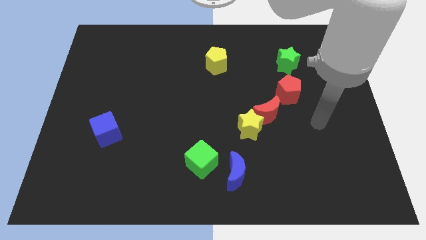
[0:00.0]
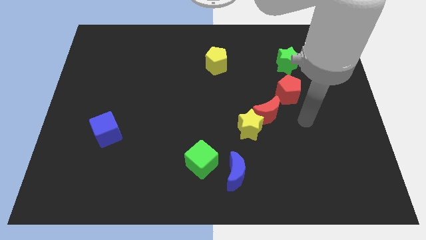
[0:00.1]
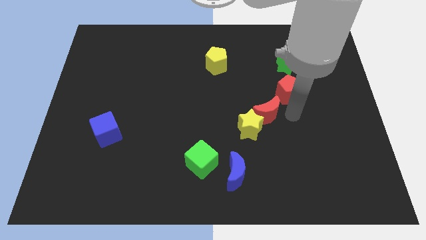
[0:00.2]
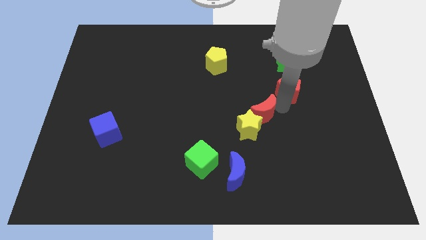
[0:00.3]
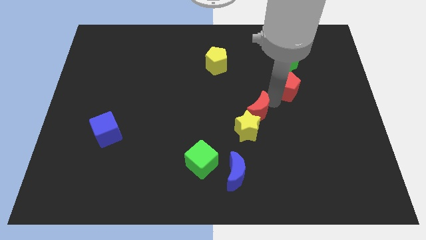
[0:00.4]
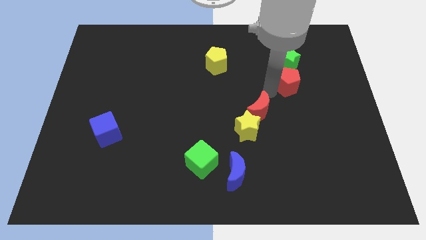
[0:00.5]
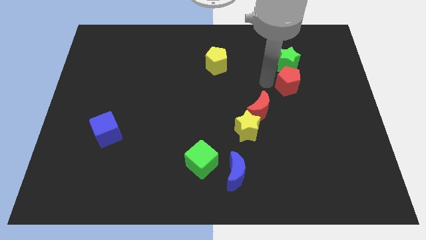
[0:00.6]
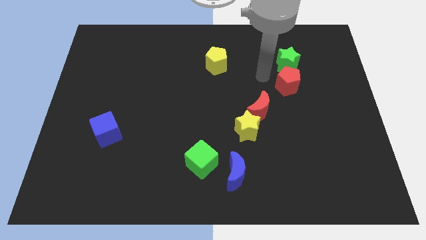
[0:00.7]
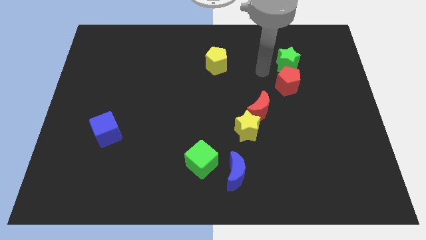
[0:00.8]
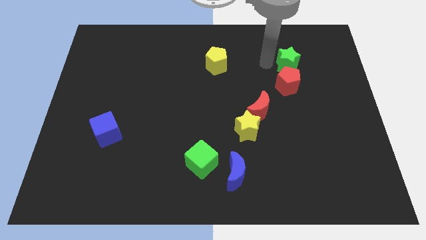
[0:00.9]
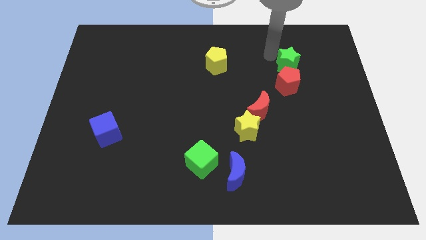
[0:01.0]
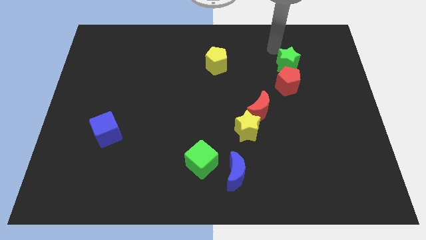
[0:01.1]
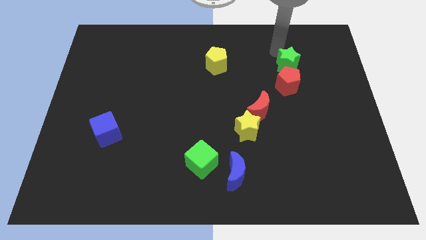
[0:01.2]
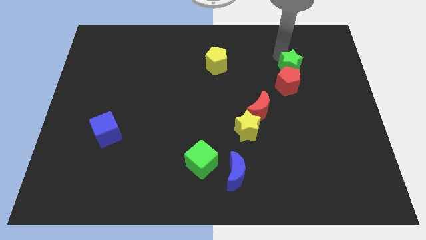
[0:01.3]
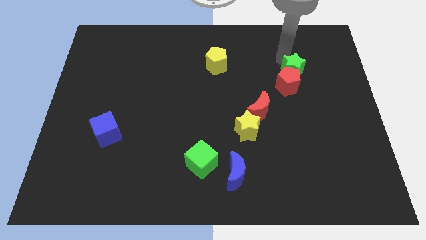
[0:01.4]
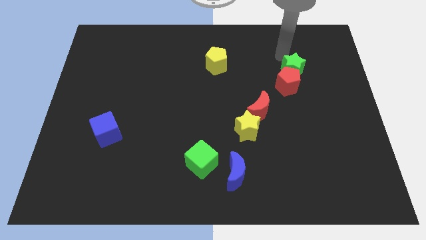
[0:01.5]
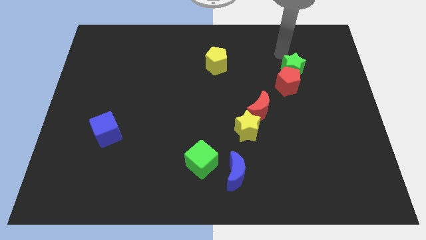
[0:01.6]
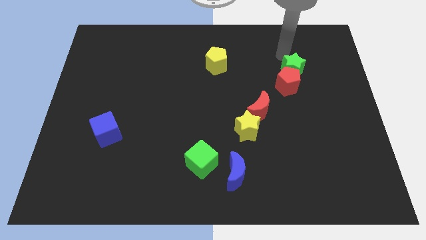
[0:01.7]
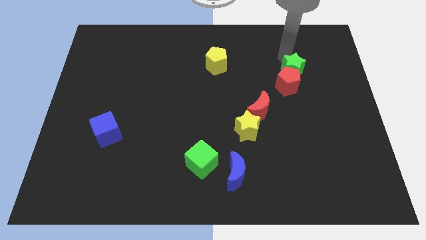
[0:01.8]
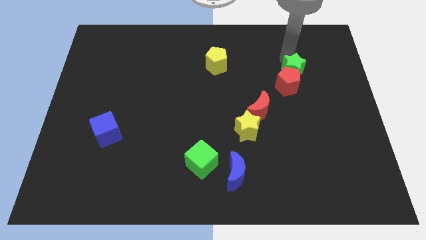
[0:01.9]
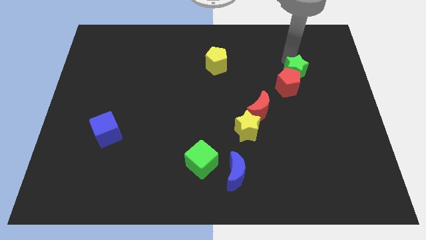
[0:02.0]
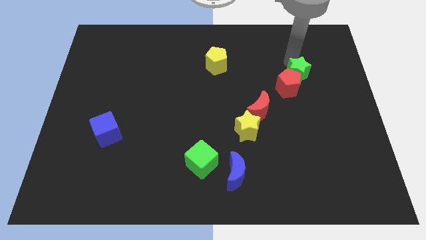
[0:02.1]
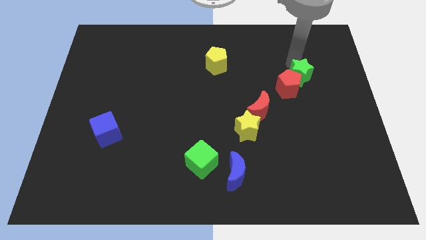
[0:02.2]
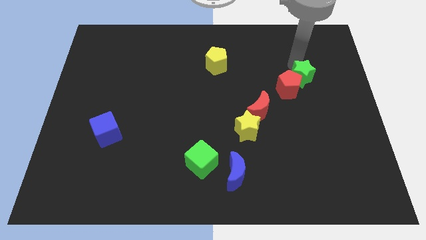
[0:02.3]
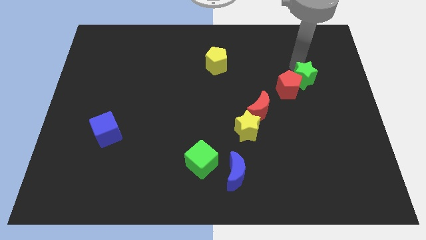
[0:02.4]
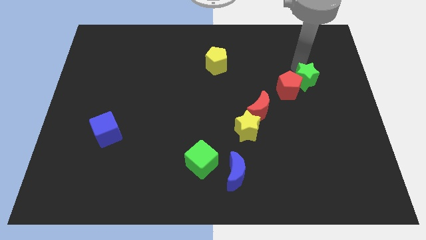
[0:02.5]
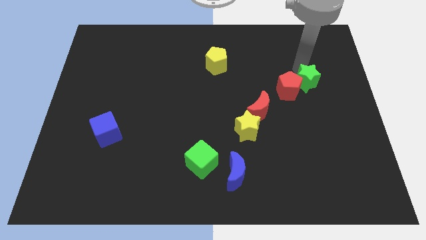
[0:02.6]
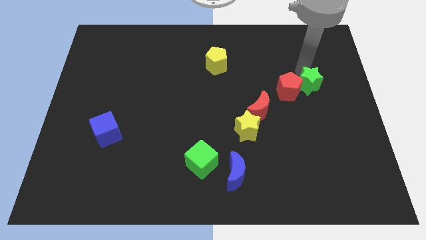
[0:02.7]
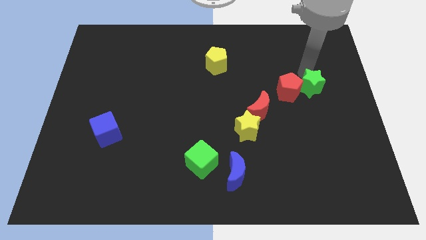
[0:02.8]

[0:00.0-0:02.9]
slide the green star a little downwards

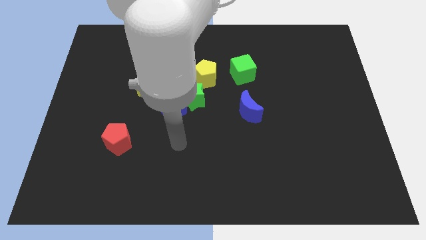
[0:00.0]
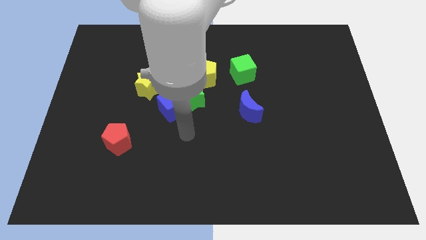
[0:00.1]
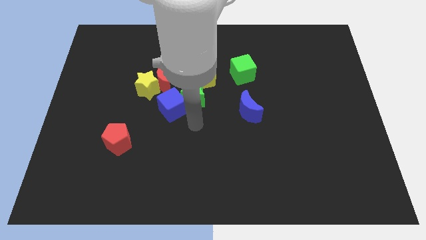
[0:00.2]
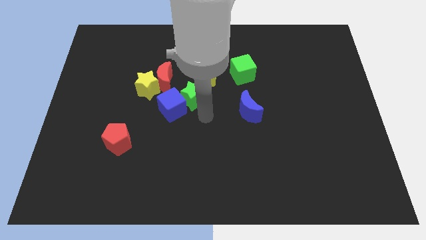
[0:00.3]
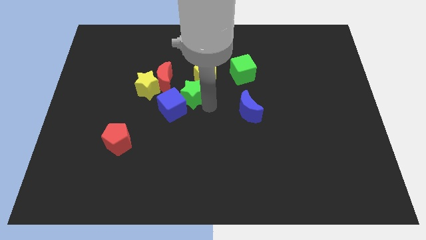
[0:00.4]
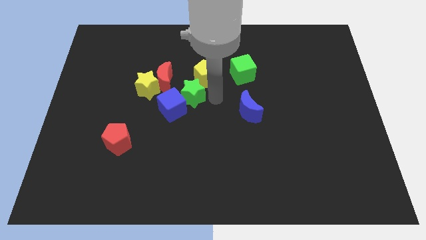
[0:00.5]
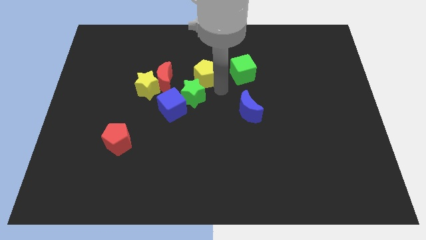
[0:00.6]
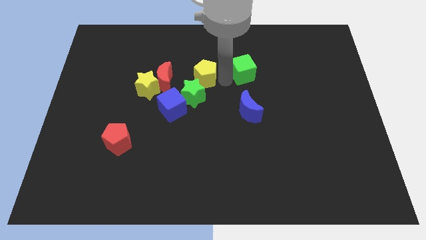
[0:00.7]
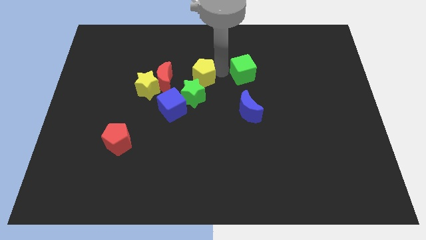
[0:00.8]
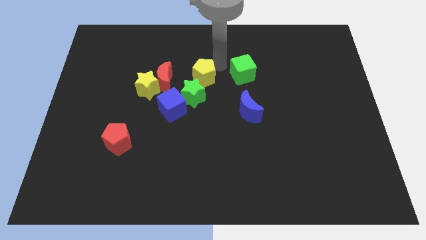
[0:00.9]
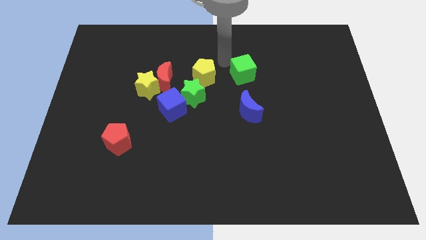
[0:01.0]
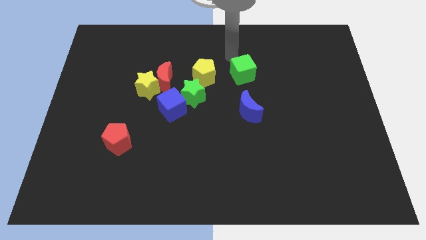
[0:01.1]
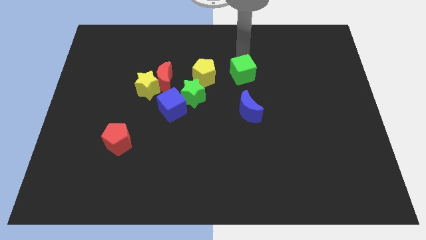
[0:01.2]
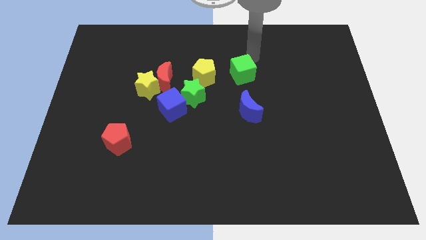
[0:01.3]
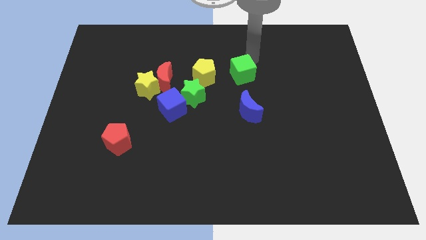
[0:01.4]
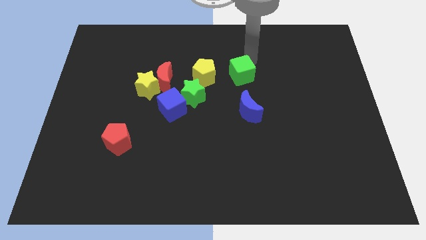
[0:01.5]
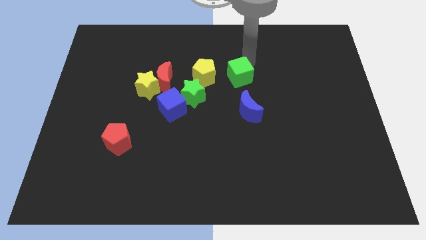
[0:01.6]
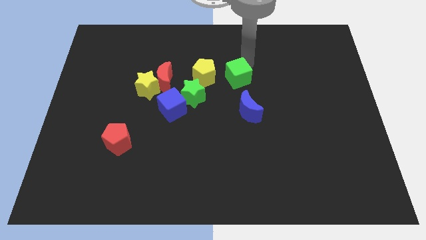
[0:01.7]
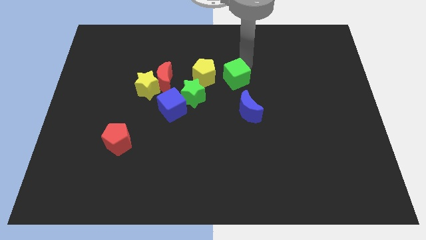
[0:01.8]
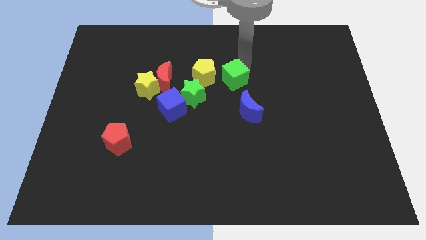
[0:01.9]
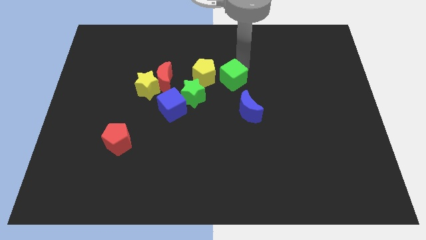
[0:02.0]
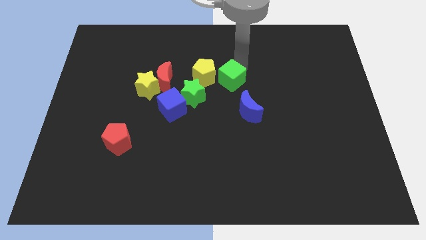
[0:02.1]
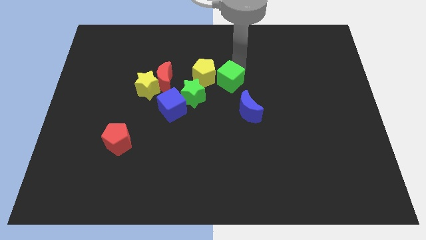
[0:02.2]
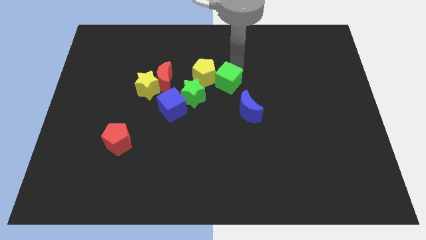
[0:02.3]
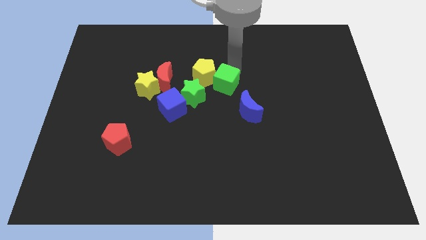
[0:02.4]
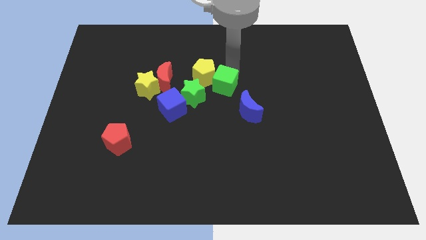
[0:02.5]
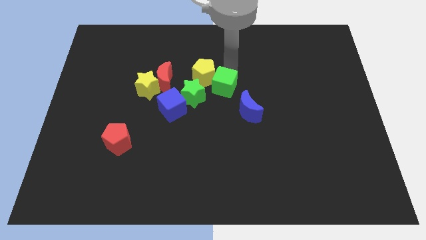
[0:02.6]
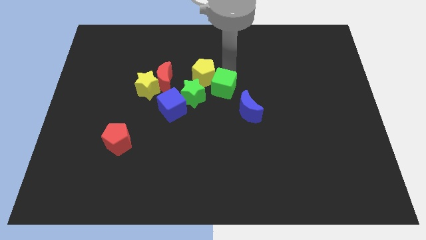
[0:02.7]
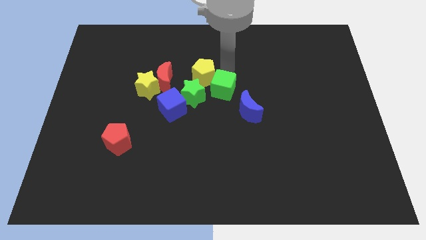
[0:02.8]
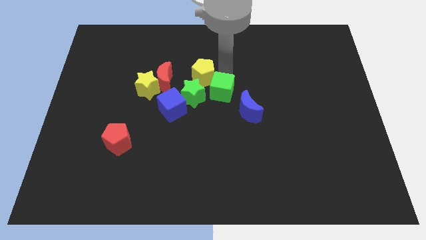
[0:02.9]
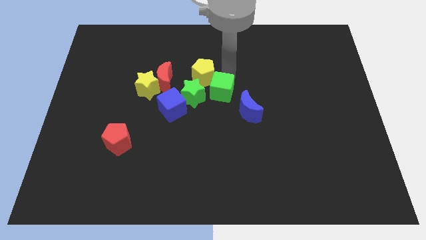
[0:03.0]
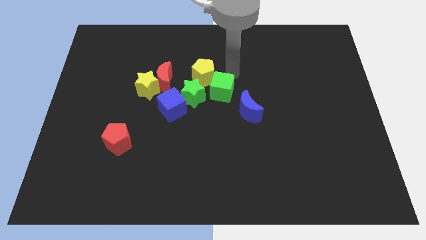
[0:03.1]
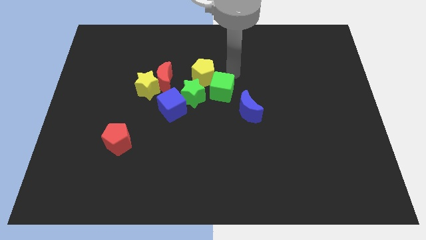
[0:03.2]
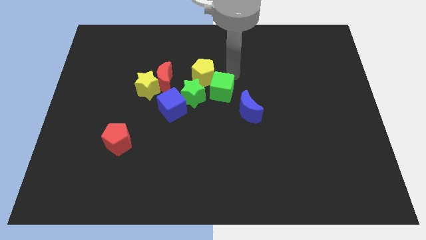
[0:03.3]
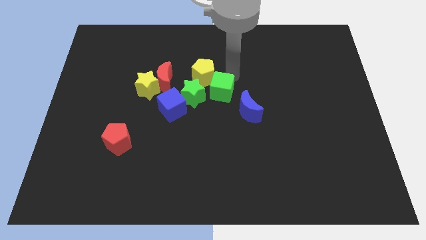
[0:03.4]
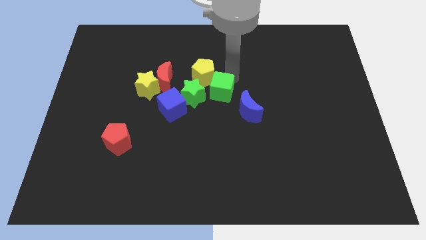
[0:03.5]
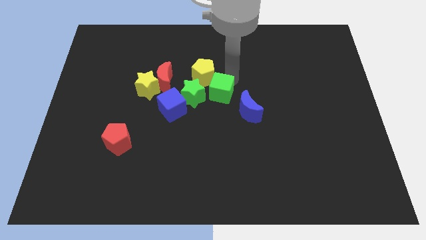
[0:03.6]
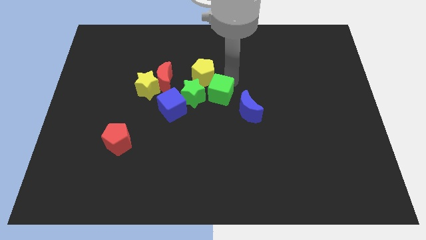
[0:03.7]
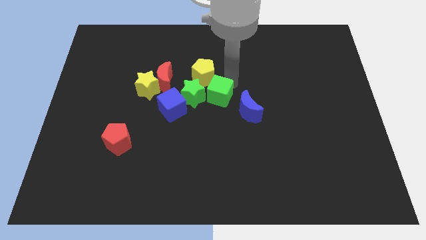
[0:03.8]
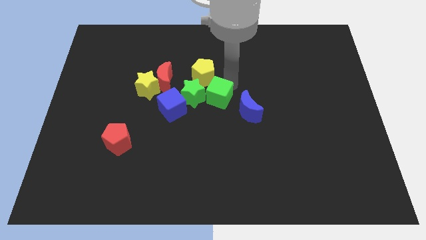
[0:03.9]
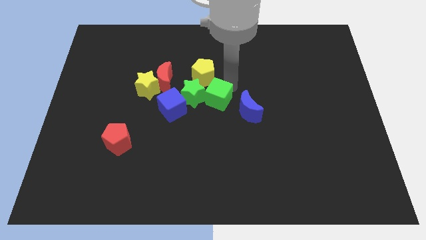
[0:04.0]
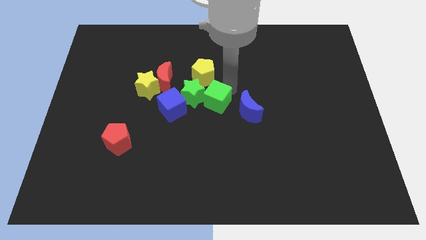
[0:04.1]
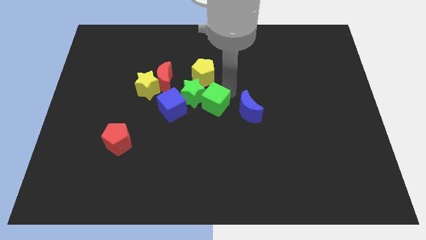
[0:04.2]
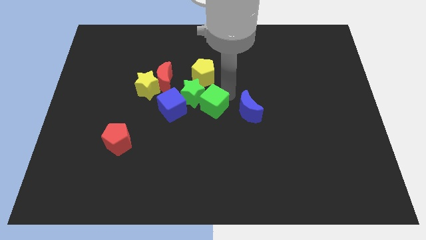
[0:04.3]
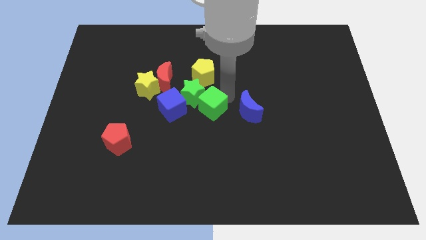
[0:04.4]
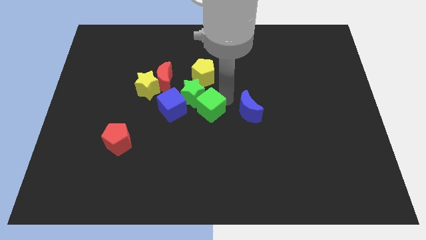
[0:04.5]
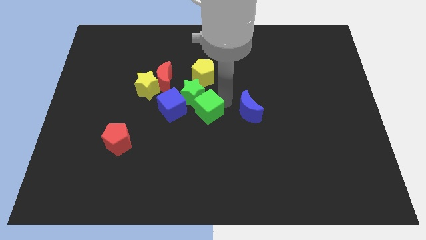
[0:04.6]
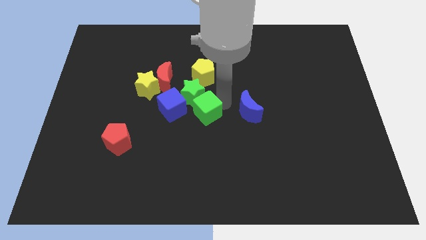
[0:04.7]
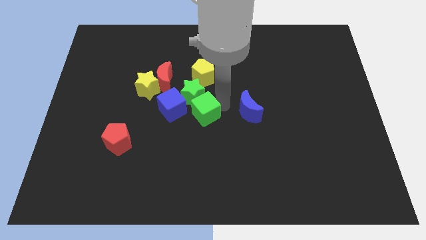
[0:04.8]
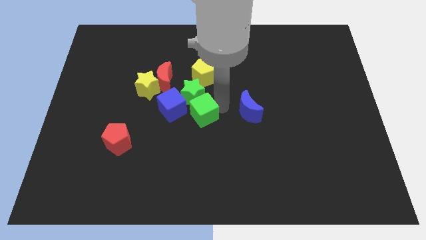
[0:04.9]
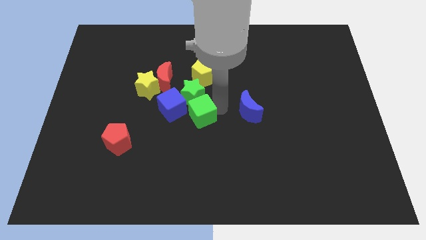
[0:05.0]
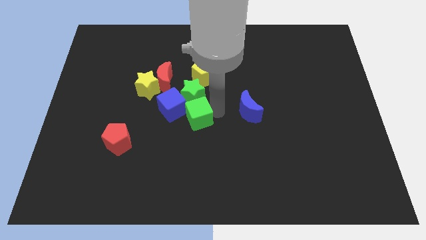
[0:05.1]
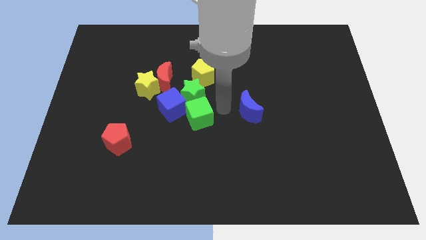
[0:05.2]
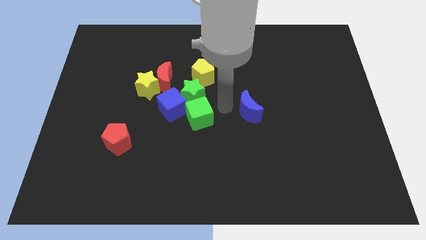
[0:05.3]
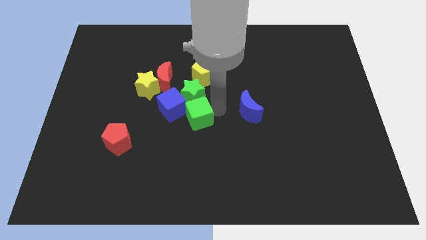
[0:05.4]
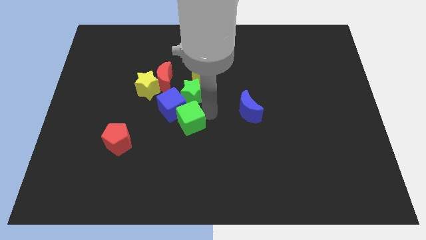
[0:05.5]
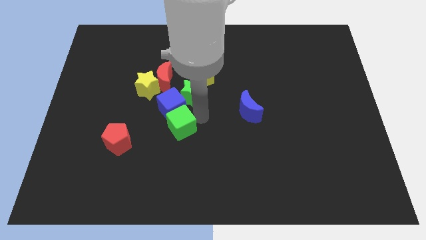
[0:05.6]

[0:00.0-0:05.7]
slide the green cube down and left diagonally
